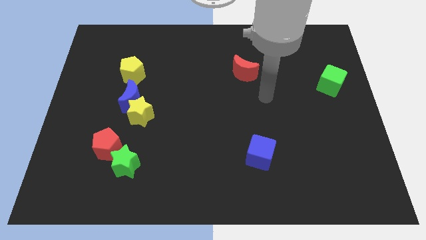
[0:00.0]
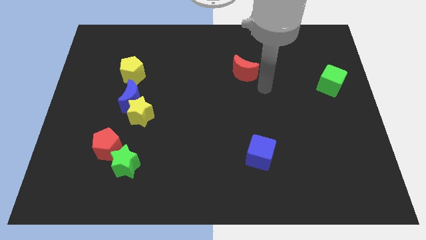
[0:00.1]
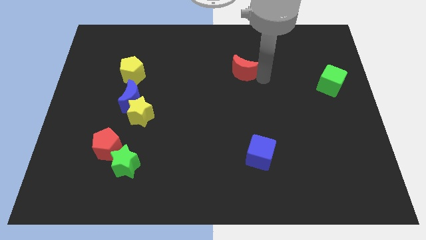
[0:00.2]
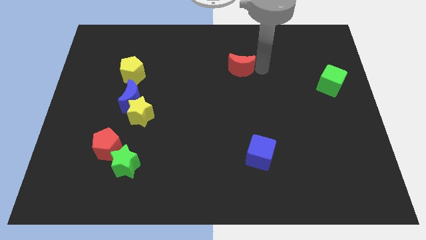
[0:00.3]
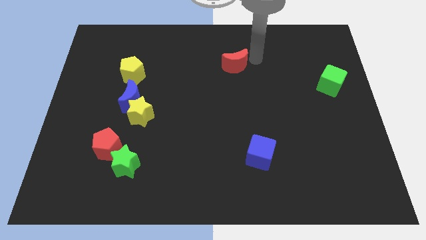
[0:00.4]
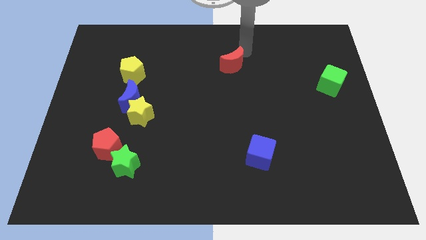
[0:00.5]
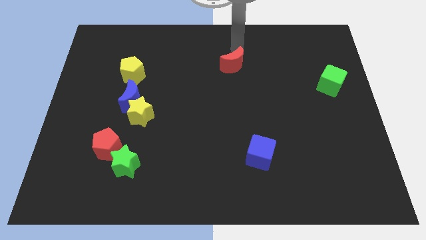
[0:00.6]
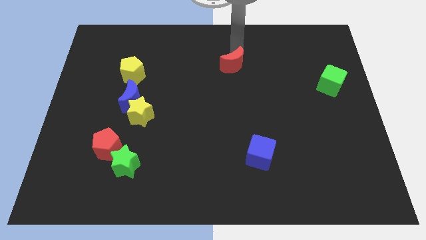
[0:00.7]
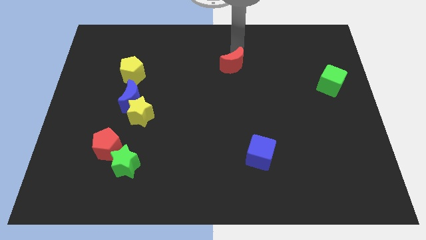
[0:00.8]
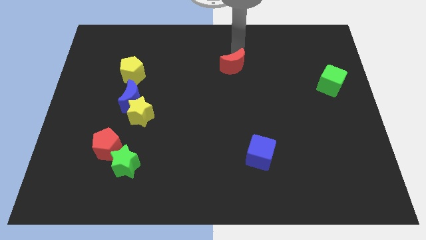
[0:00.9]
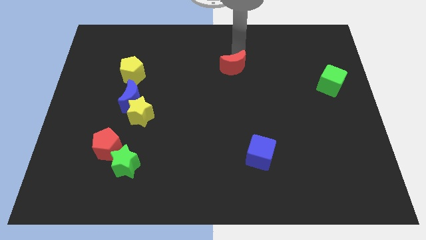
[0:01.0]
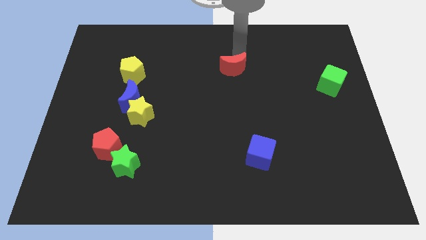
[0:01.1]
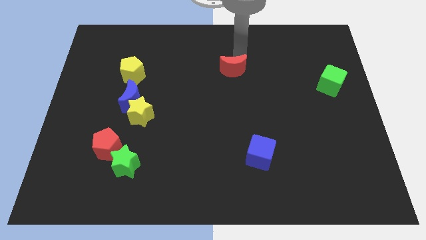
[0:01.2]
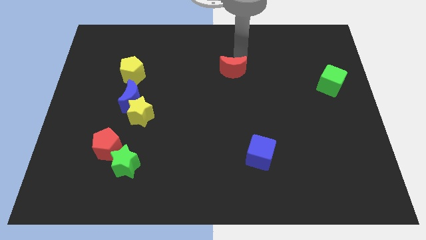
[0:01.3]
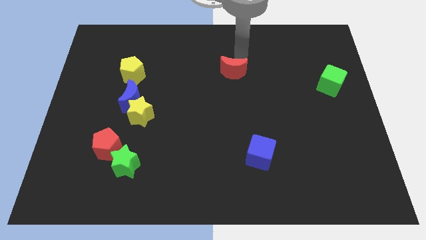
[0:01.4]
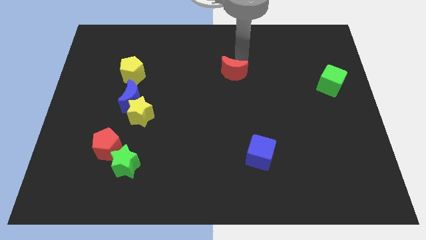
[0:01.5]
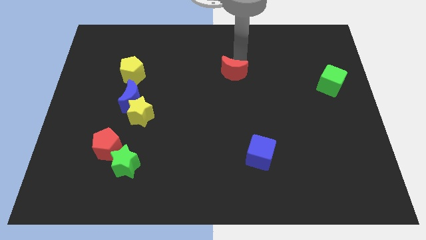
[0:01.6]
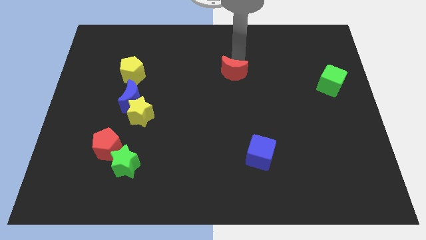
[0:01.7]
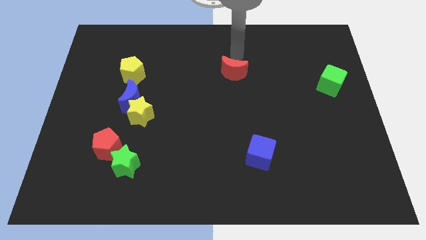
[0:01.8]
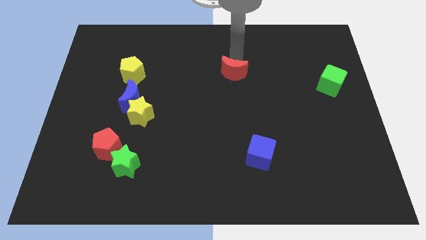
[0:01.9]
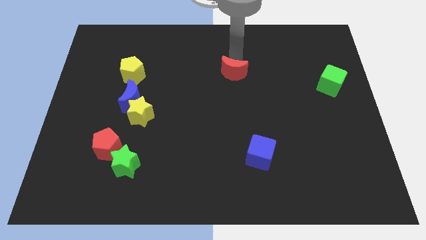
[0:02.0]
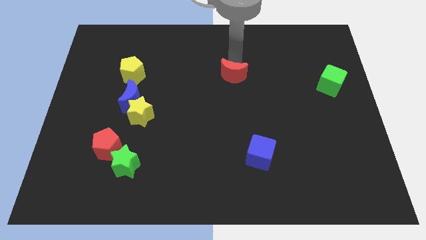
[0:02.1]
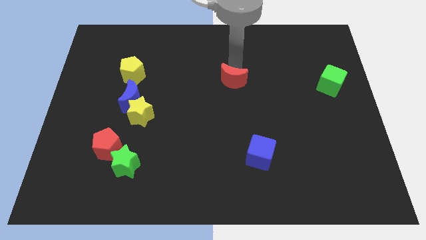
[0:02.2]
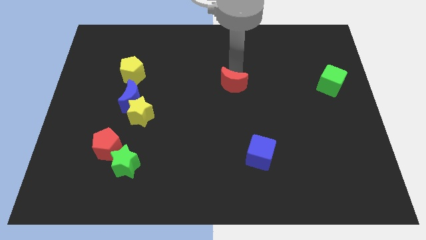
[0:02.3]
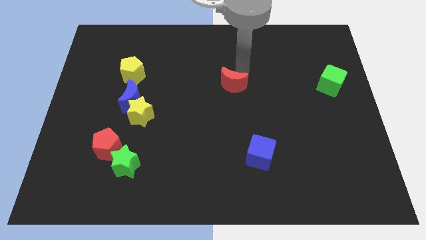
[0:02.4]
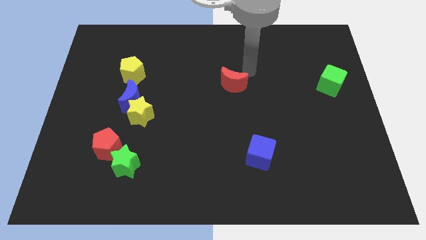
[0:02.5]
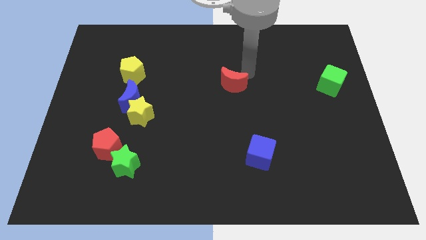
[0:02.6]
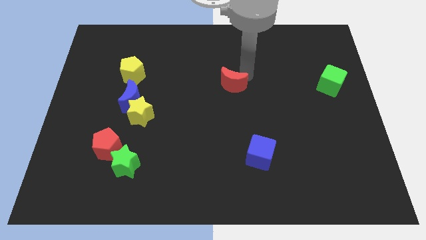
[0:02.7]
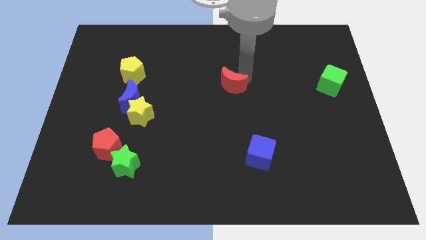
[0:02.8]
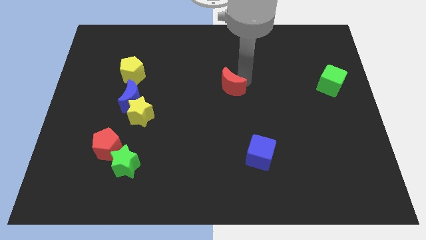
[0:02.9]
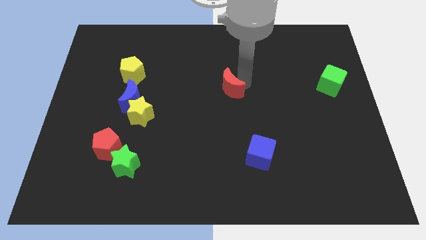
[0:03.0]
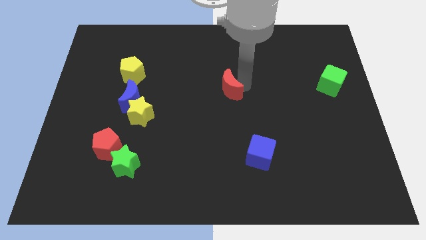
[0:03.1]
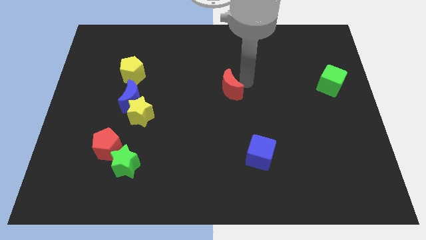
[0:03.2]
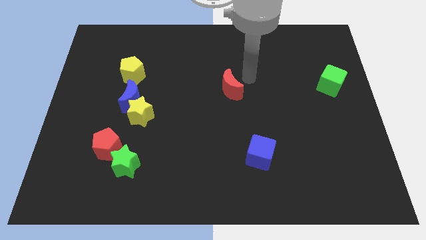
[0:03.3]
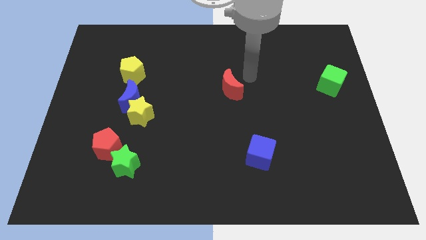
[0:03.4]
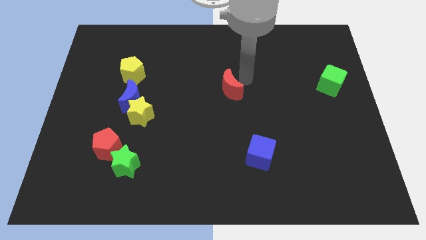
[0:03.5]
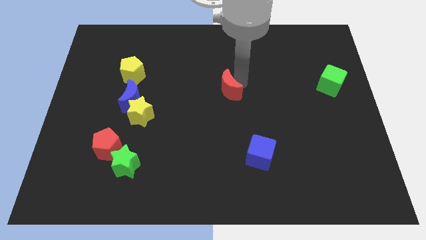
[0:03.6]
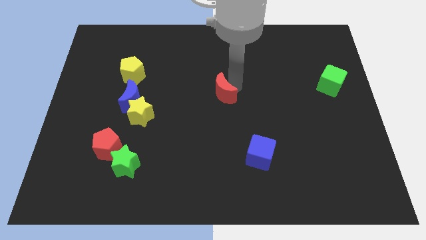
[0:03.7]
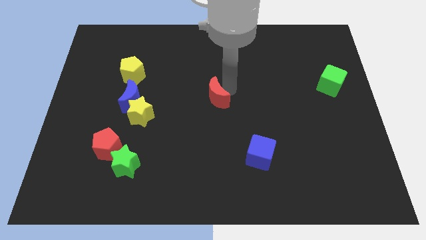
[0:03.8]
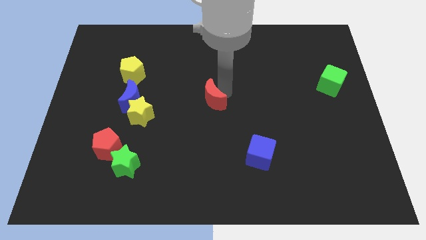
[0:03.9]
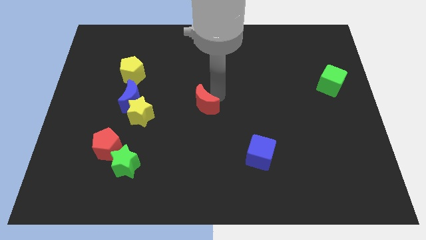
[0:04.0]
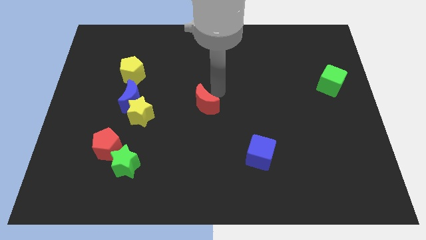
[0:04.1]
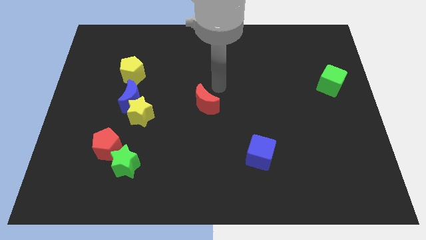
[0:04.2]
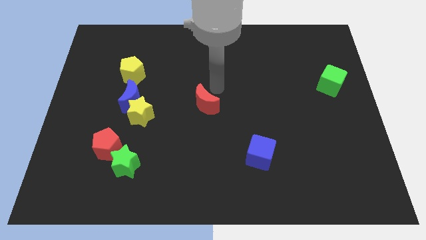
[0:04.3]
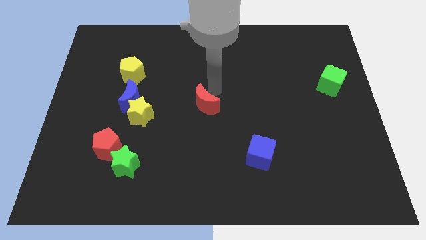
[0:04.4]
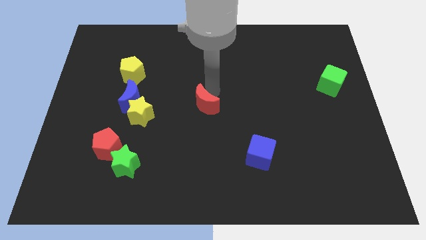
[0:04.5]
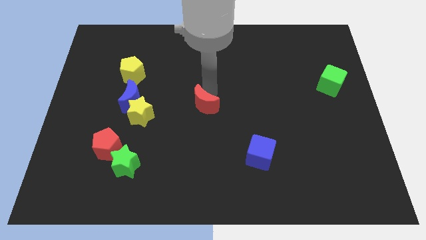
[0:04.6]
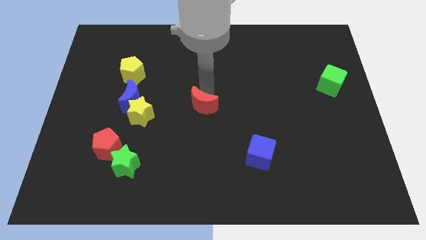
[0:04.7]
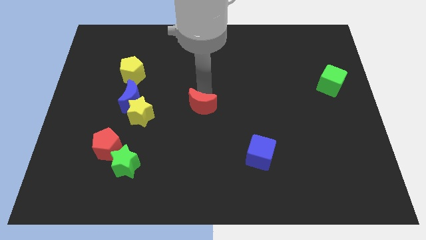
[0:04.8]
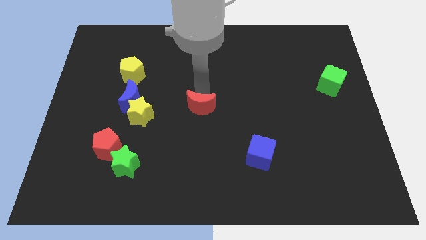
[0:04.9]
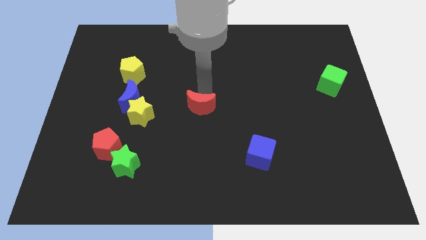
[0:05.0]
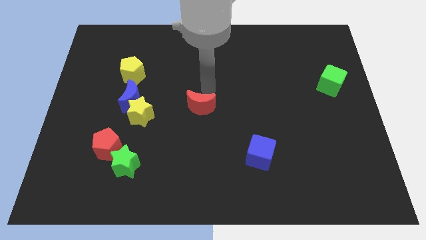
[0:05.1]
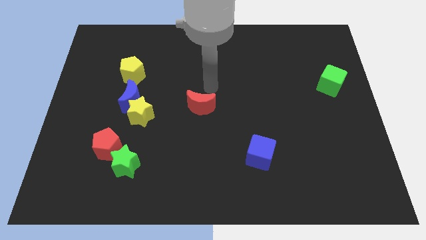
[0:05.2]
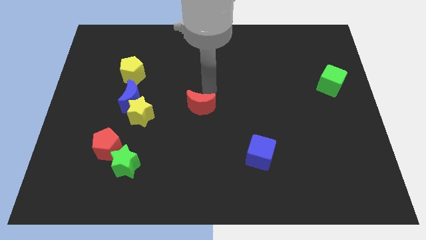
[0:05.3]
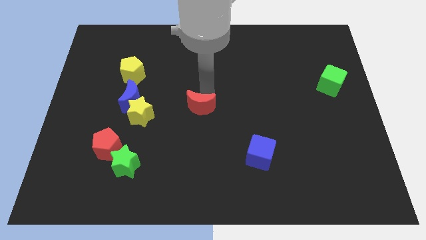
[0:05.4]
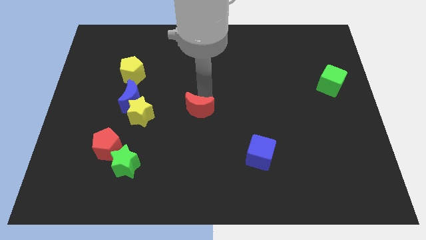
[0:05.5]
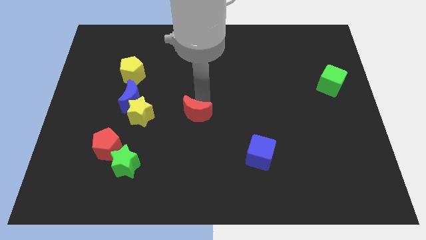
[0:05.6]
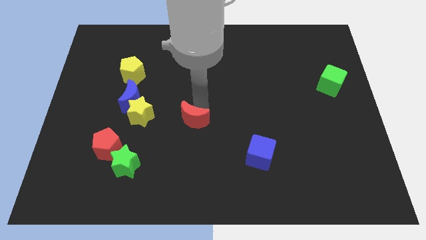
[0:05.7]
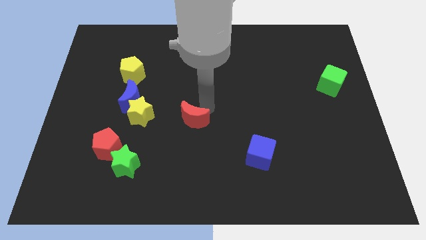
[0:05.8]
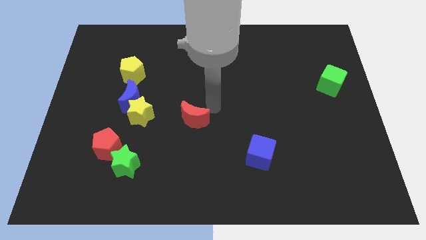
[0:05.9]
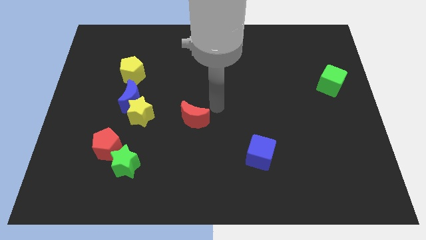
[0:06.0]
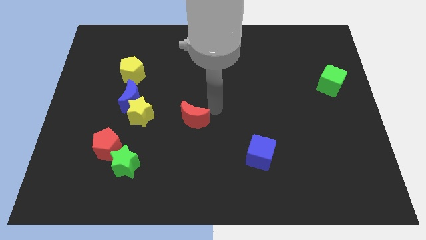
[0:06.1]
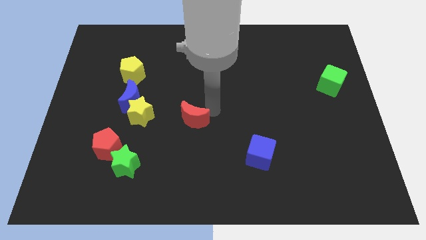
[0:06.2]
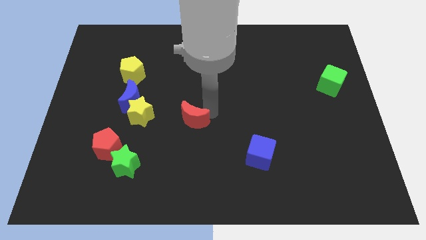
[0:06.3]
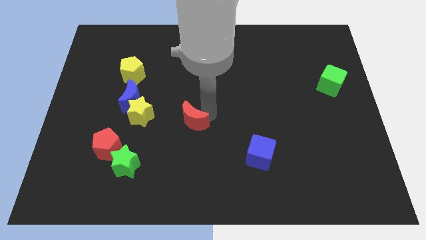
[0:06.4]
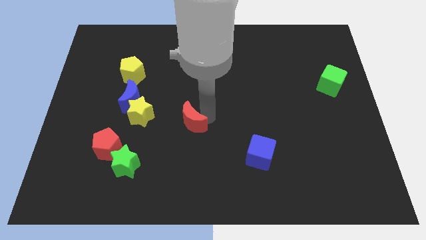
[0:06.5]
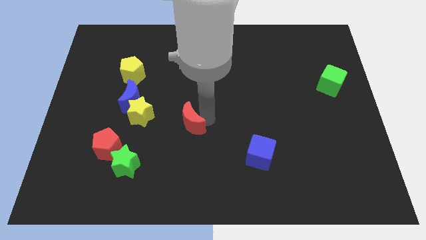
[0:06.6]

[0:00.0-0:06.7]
move the red moon diagonally down and left

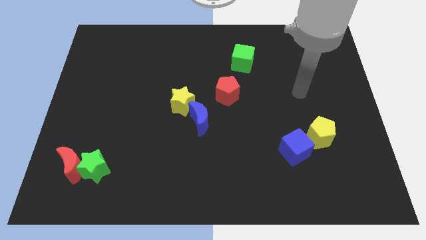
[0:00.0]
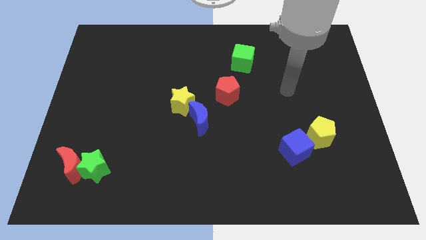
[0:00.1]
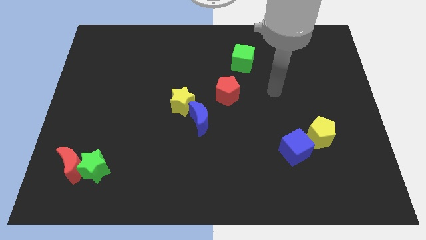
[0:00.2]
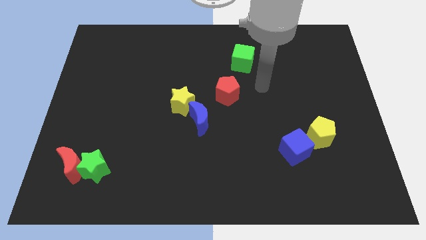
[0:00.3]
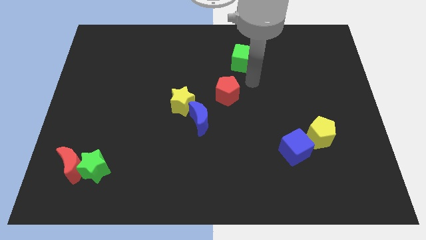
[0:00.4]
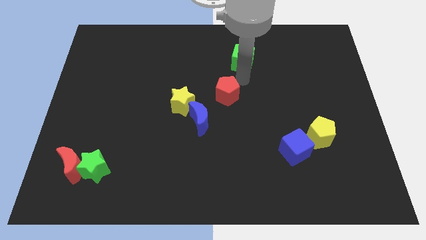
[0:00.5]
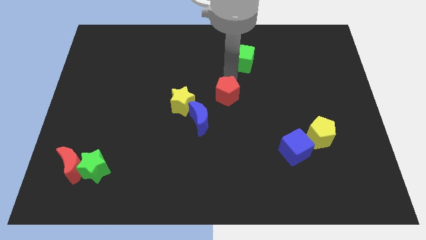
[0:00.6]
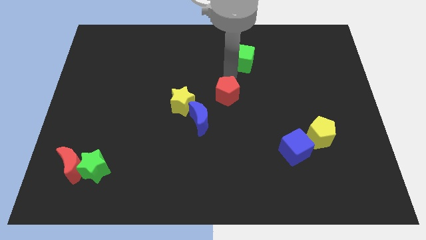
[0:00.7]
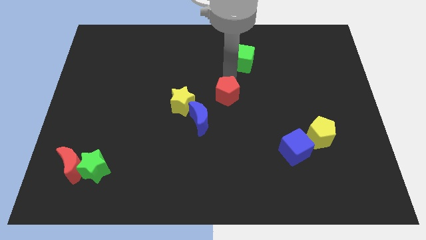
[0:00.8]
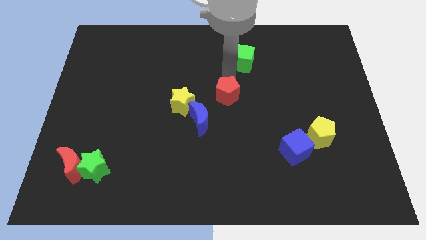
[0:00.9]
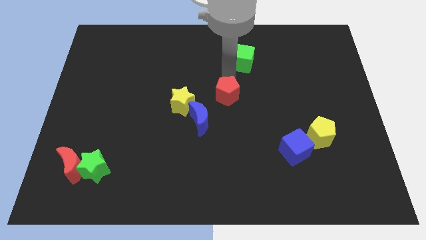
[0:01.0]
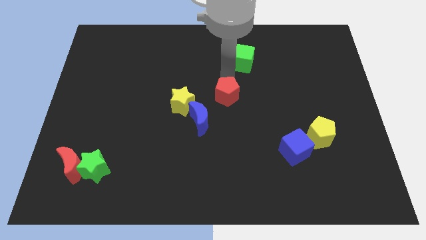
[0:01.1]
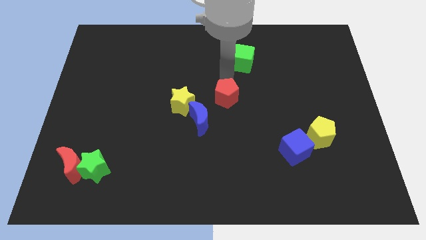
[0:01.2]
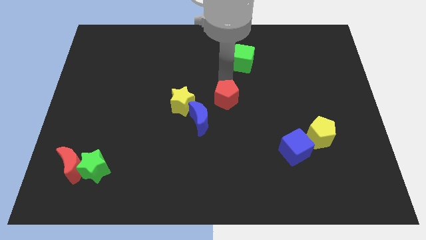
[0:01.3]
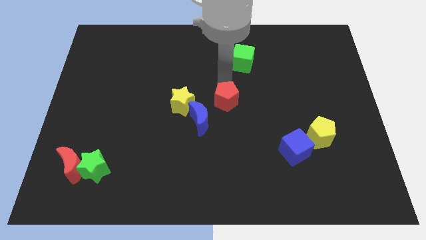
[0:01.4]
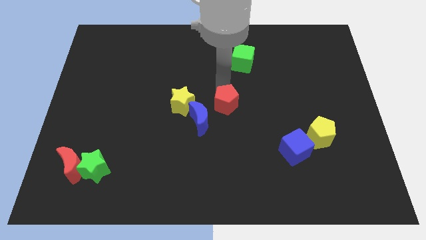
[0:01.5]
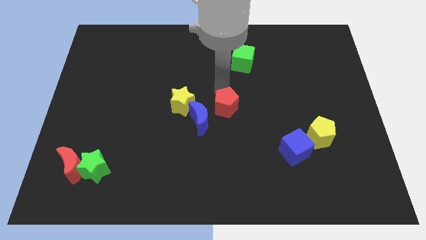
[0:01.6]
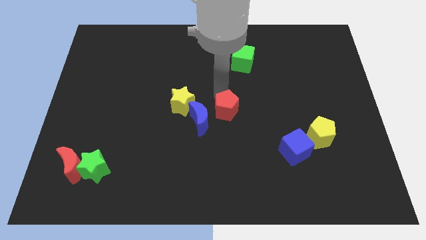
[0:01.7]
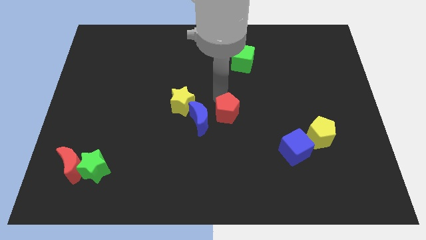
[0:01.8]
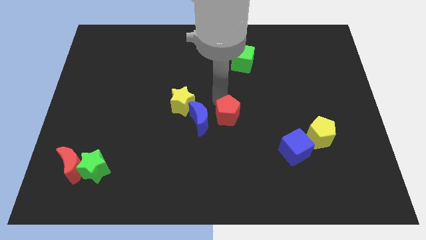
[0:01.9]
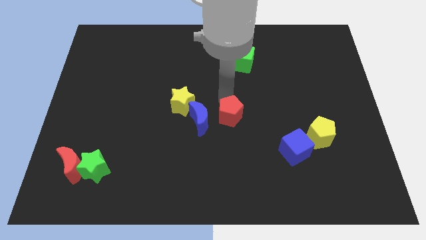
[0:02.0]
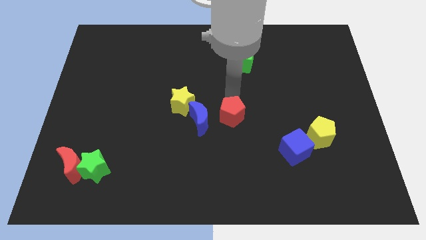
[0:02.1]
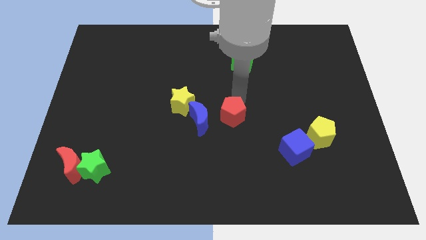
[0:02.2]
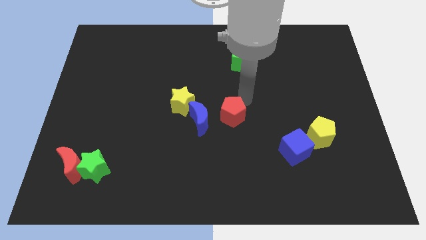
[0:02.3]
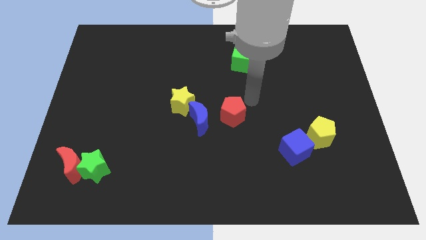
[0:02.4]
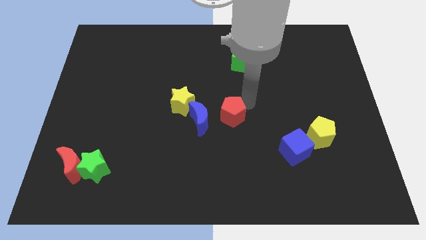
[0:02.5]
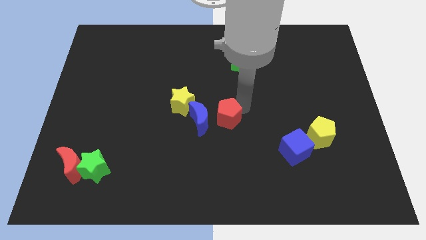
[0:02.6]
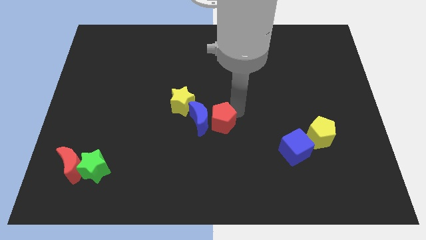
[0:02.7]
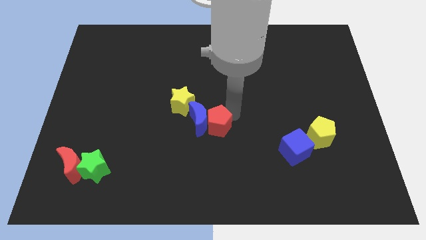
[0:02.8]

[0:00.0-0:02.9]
push the red pentagon downwards and left diagonally somewhat
